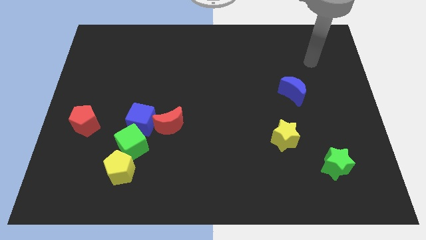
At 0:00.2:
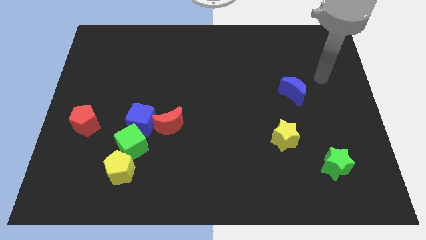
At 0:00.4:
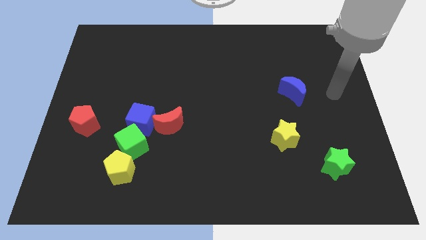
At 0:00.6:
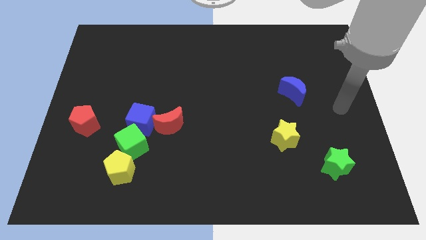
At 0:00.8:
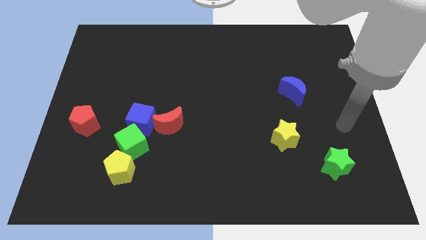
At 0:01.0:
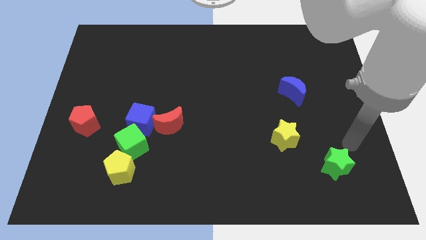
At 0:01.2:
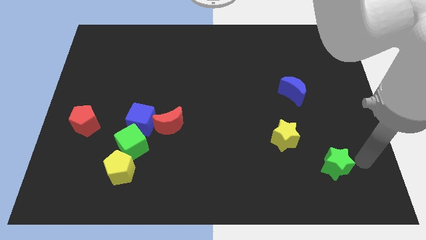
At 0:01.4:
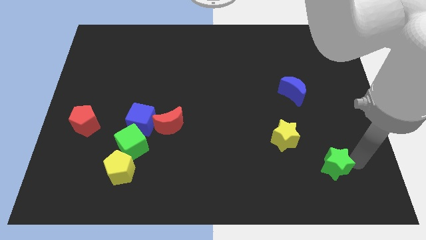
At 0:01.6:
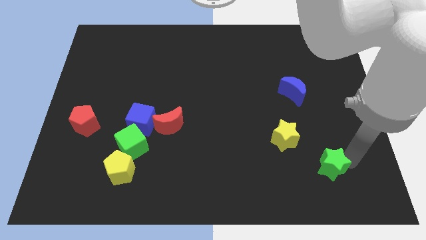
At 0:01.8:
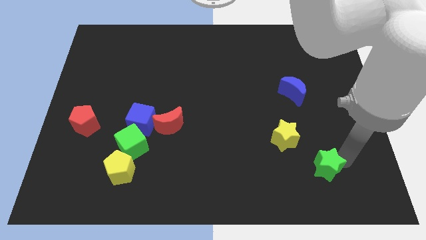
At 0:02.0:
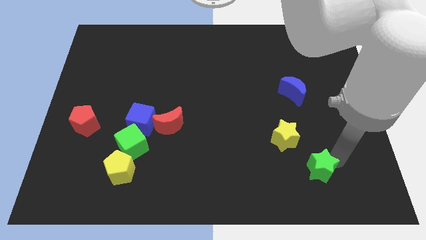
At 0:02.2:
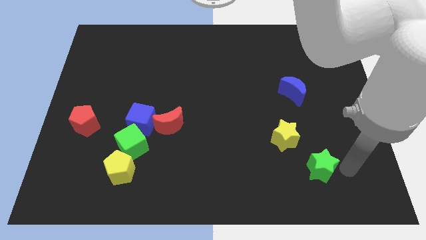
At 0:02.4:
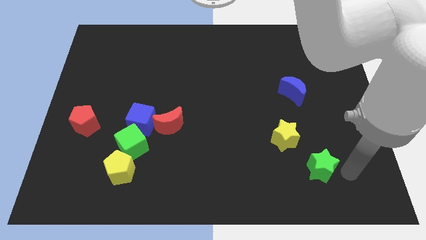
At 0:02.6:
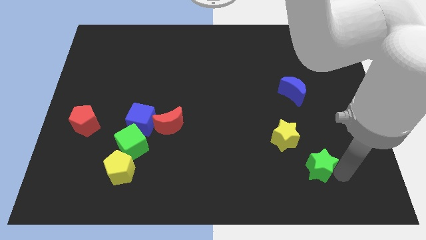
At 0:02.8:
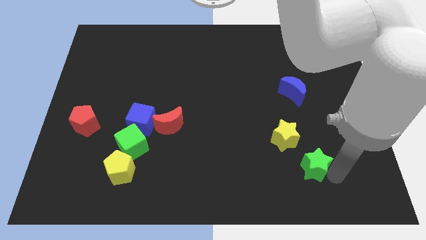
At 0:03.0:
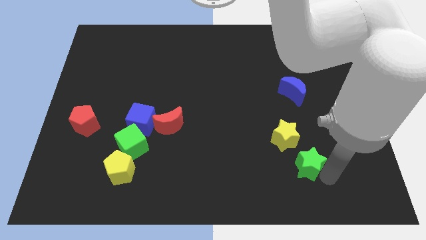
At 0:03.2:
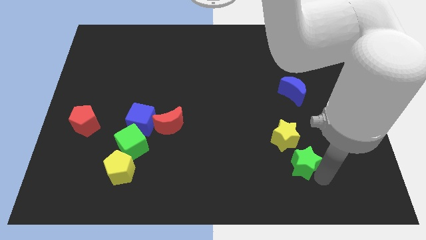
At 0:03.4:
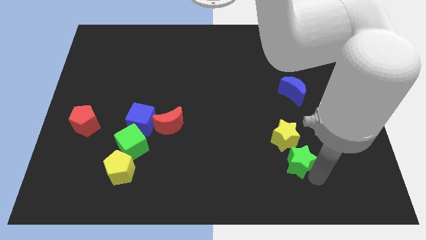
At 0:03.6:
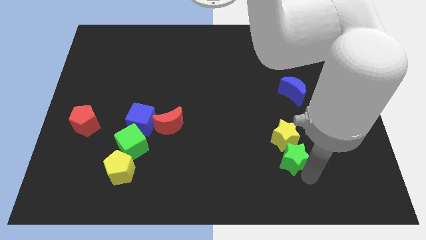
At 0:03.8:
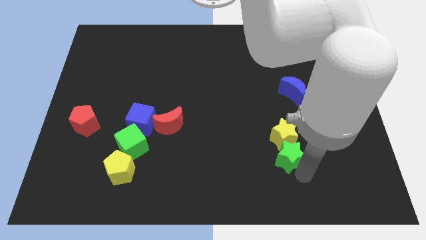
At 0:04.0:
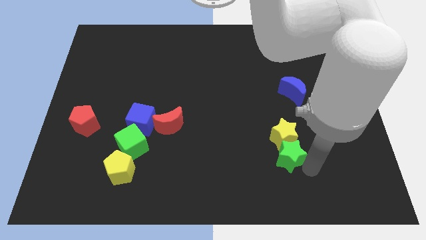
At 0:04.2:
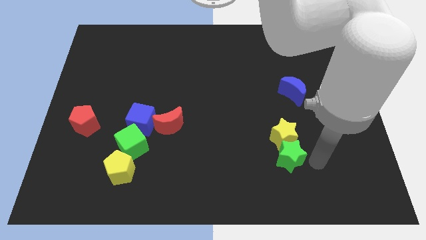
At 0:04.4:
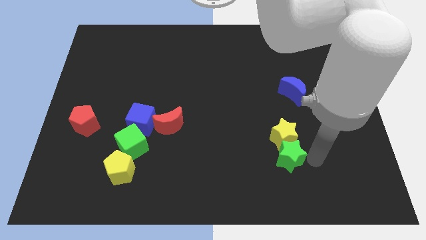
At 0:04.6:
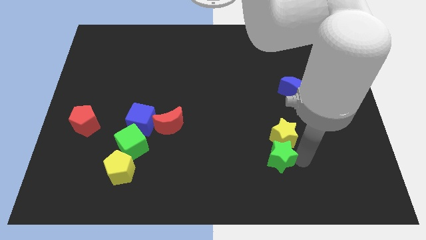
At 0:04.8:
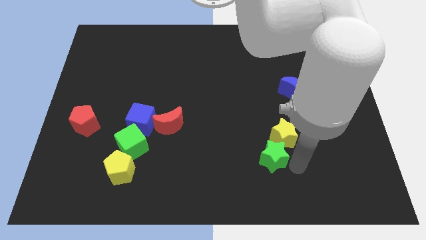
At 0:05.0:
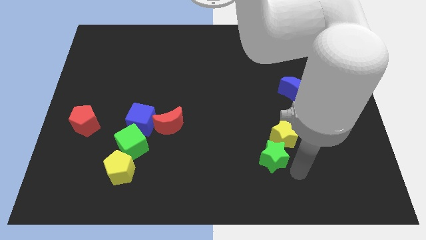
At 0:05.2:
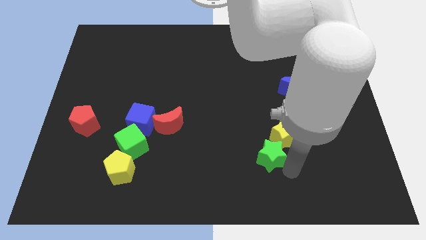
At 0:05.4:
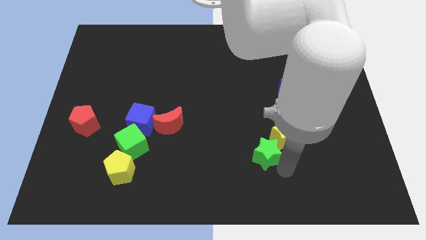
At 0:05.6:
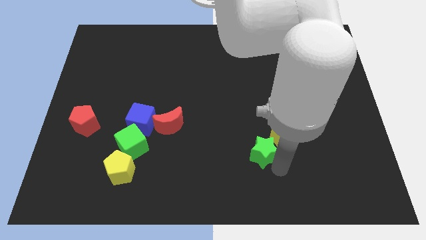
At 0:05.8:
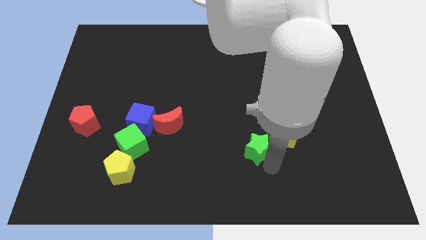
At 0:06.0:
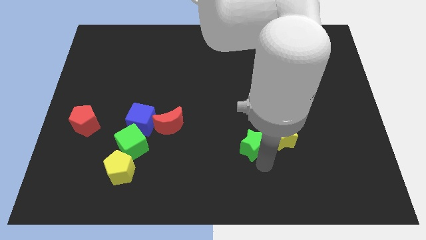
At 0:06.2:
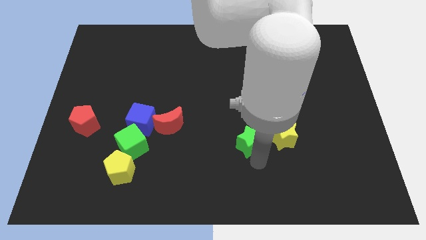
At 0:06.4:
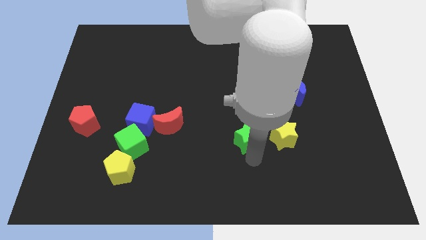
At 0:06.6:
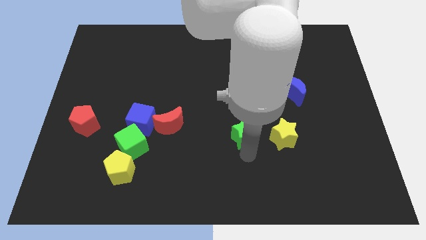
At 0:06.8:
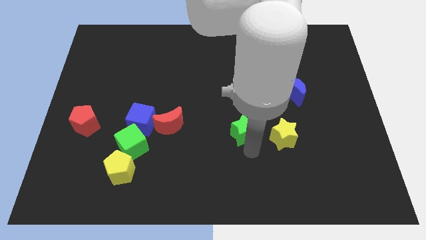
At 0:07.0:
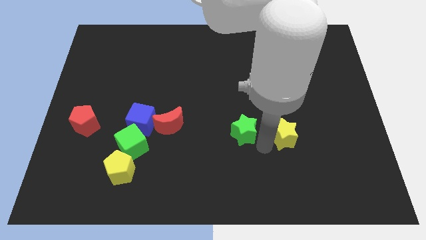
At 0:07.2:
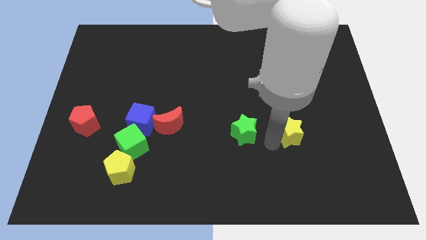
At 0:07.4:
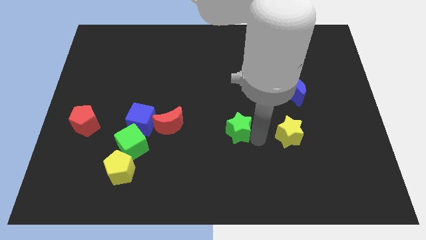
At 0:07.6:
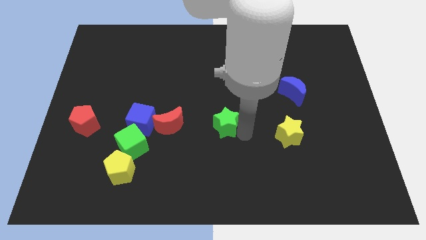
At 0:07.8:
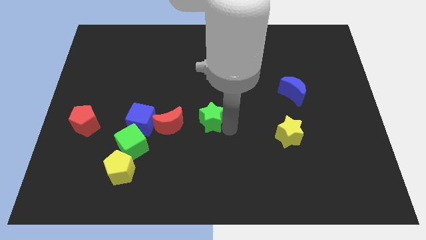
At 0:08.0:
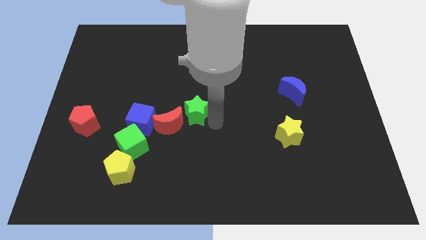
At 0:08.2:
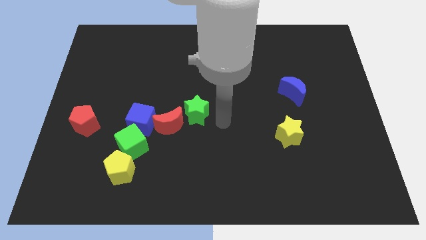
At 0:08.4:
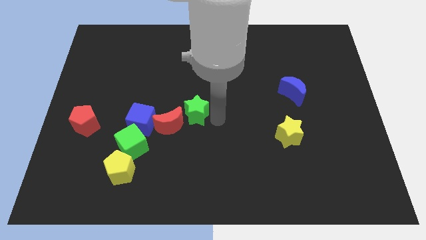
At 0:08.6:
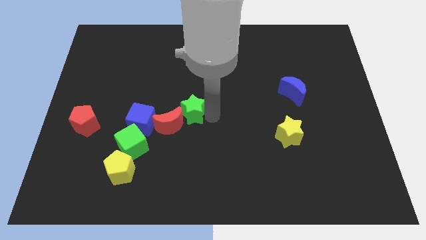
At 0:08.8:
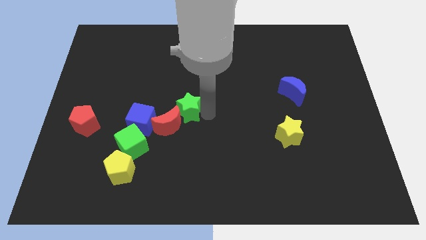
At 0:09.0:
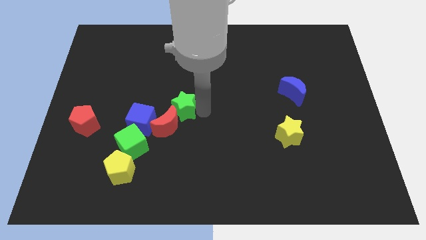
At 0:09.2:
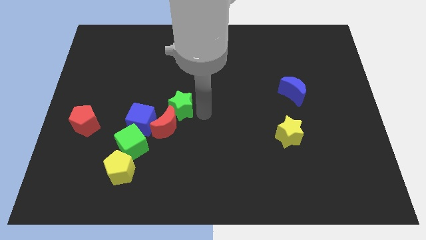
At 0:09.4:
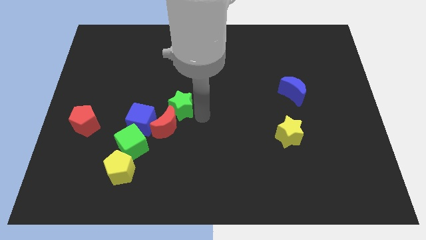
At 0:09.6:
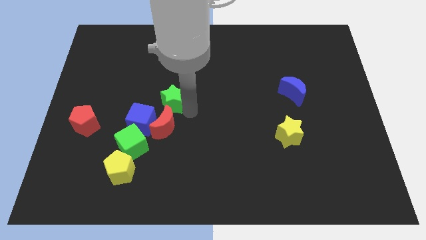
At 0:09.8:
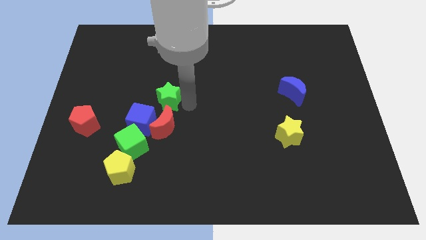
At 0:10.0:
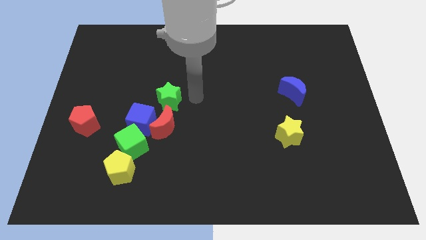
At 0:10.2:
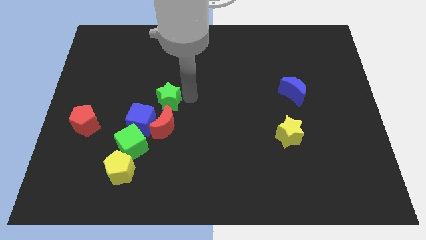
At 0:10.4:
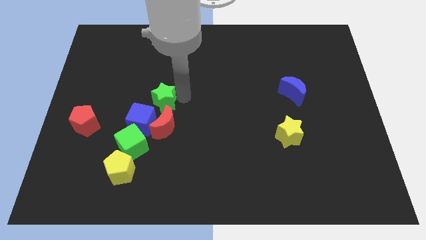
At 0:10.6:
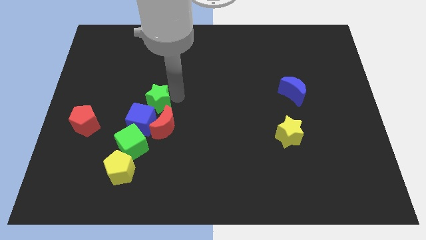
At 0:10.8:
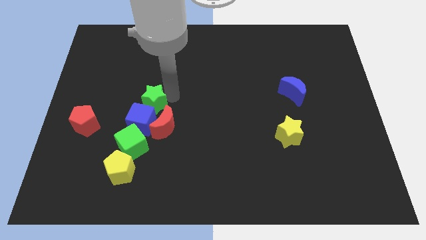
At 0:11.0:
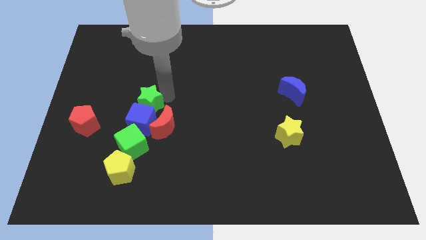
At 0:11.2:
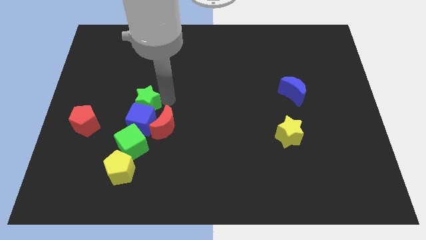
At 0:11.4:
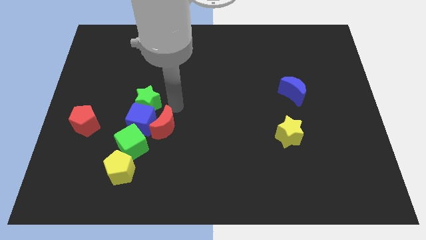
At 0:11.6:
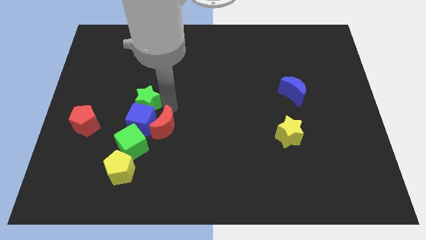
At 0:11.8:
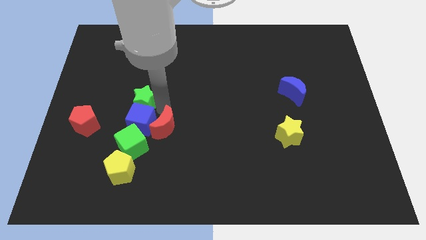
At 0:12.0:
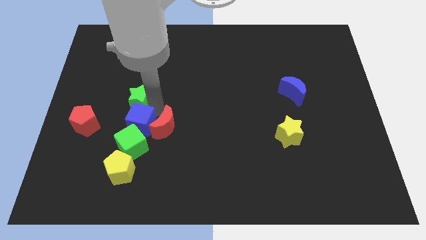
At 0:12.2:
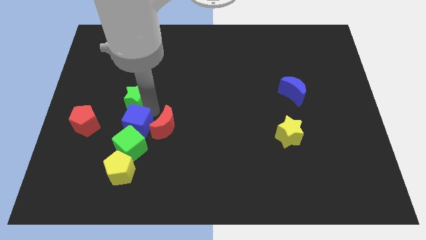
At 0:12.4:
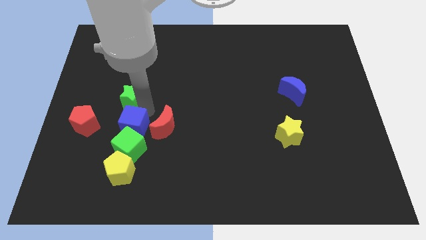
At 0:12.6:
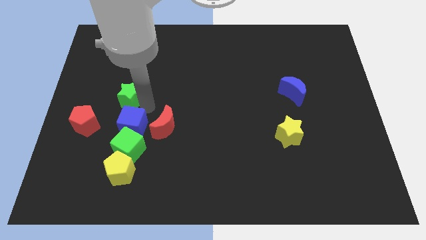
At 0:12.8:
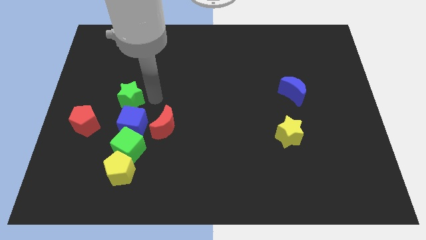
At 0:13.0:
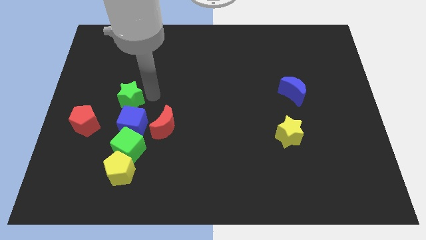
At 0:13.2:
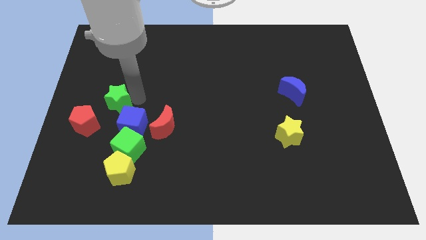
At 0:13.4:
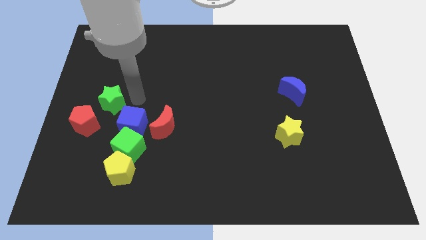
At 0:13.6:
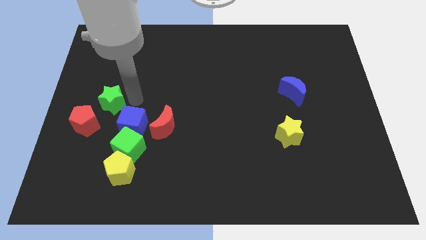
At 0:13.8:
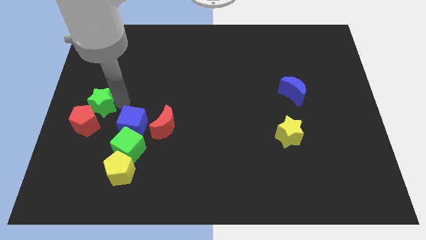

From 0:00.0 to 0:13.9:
put the green star to the left side

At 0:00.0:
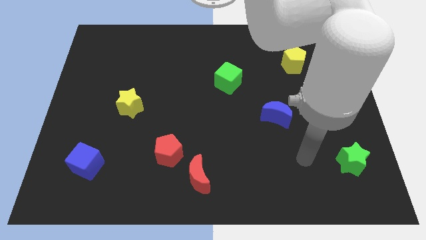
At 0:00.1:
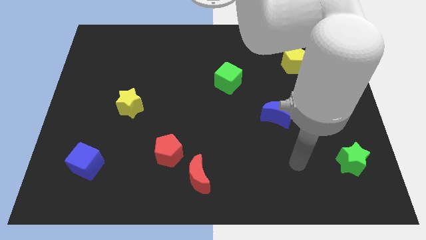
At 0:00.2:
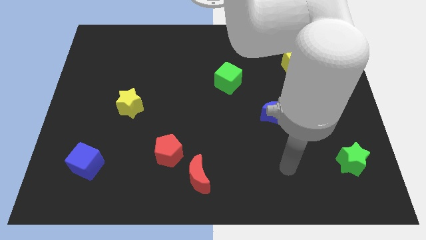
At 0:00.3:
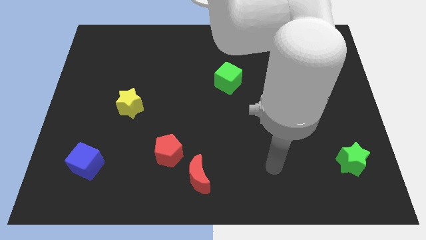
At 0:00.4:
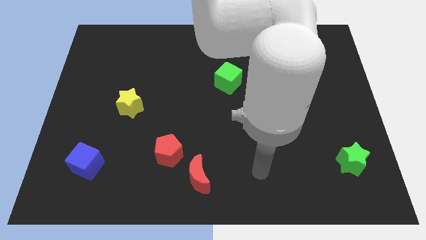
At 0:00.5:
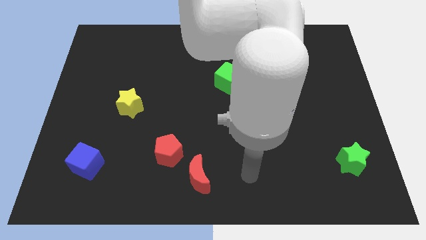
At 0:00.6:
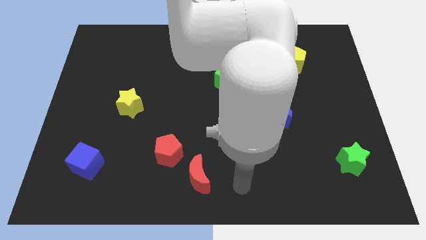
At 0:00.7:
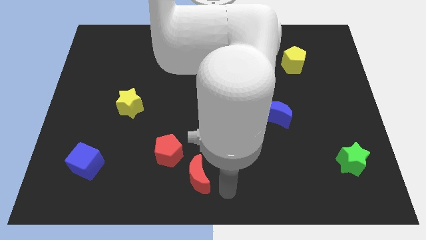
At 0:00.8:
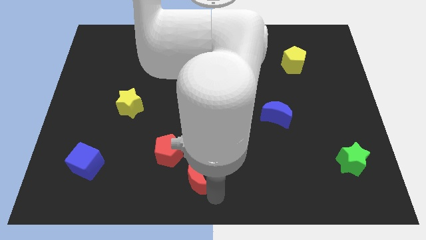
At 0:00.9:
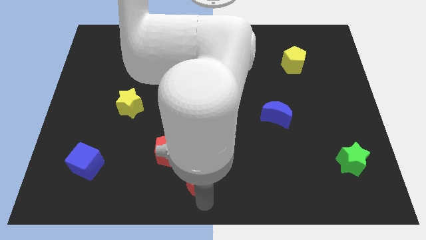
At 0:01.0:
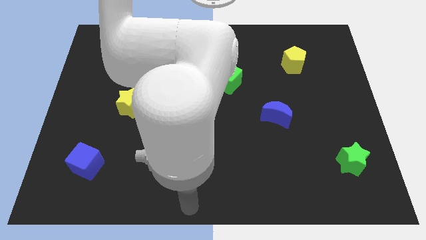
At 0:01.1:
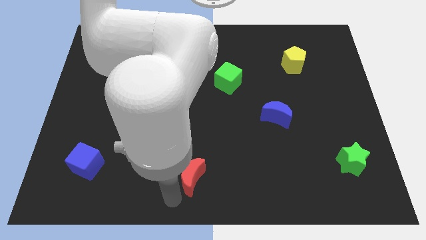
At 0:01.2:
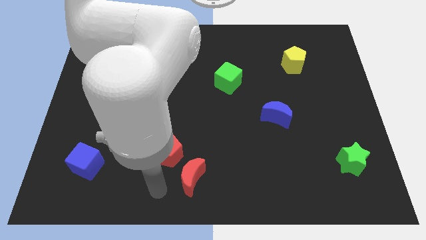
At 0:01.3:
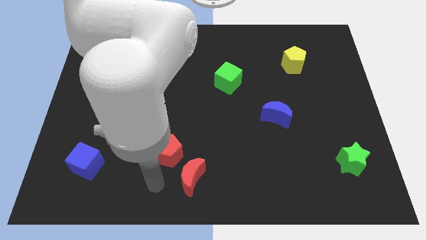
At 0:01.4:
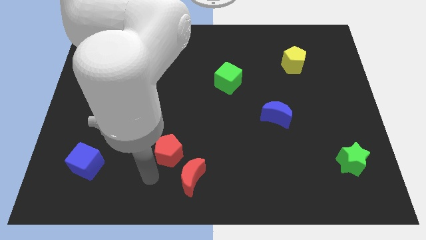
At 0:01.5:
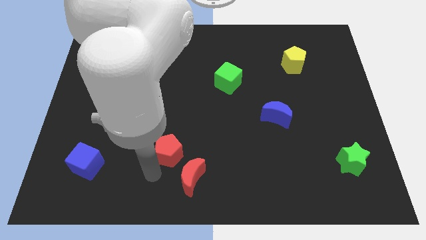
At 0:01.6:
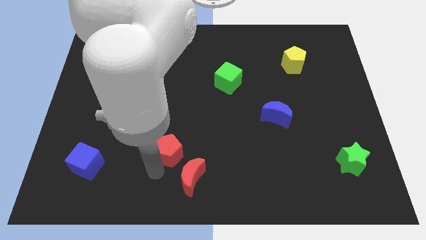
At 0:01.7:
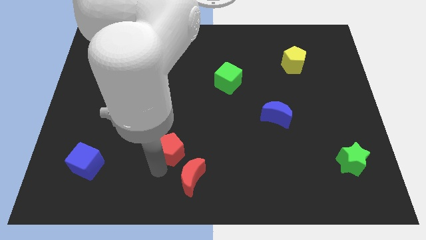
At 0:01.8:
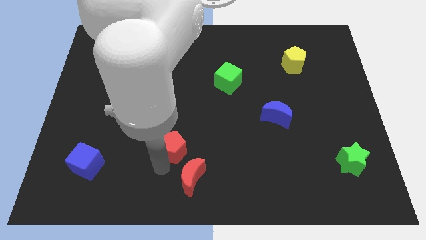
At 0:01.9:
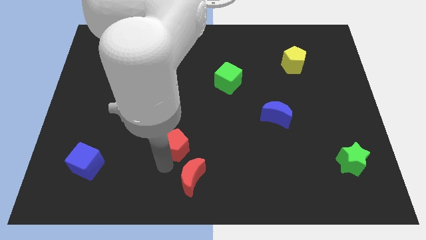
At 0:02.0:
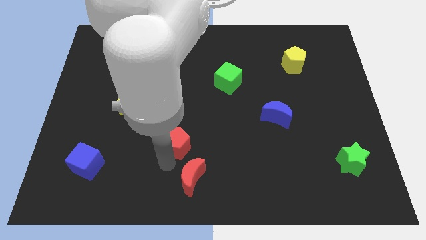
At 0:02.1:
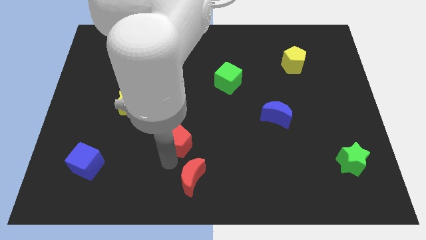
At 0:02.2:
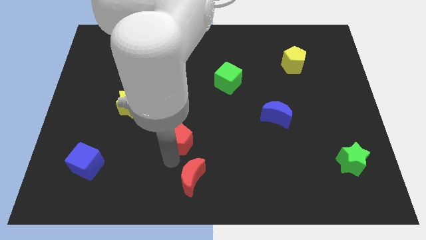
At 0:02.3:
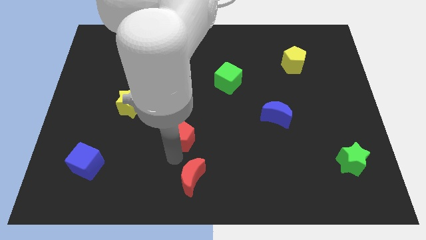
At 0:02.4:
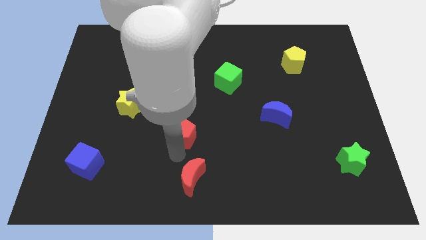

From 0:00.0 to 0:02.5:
slide the red pentagon to the middle
